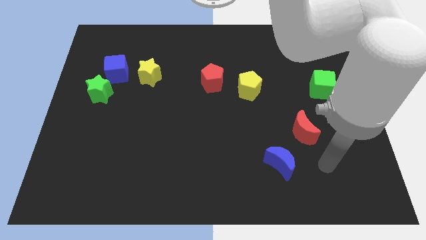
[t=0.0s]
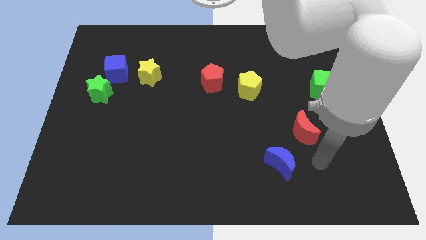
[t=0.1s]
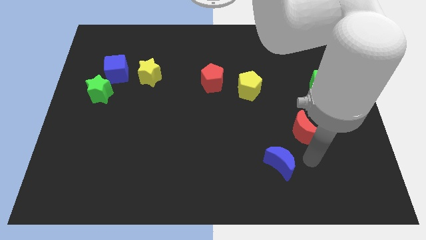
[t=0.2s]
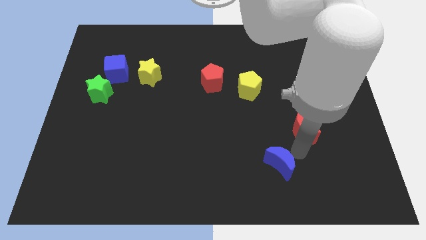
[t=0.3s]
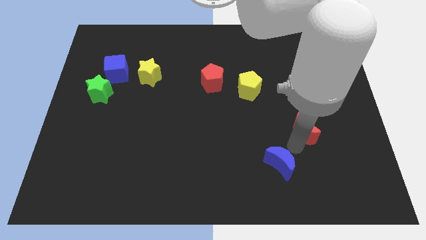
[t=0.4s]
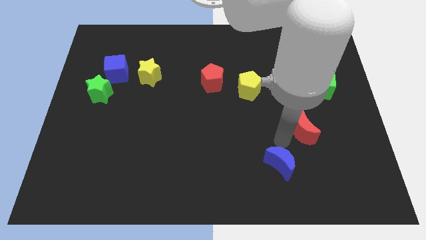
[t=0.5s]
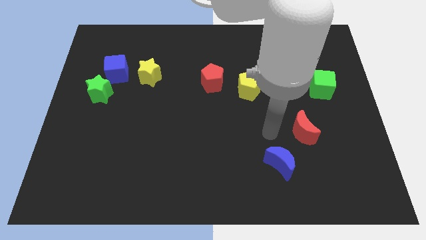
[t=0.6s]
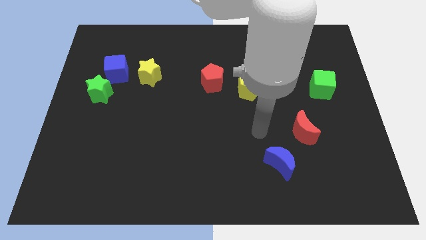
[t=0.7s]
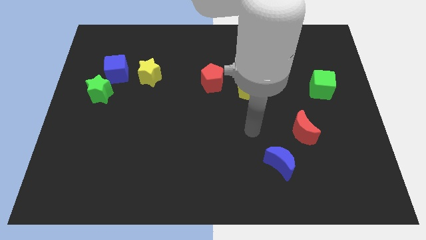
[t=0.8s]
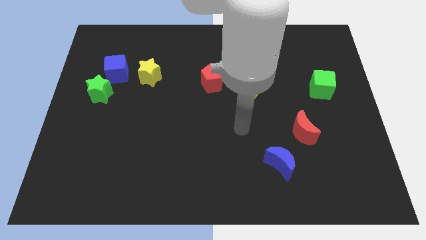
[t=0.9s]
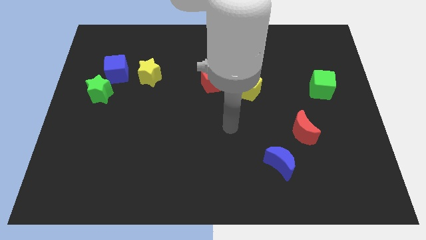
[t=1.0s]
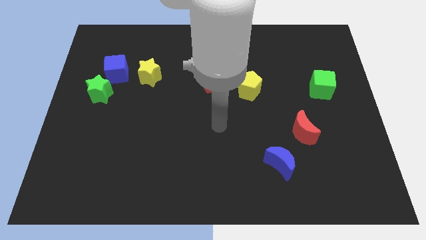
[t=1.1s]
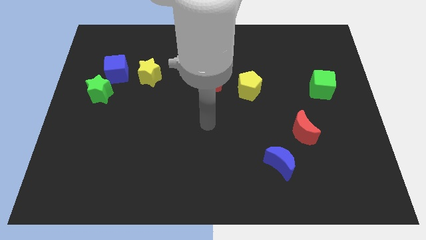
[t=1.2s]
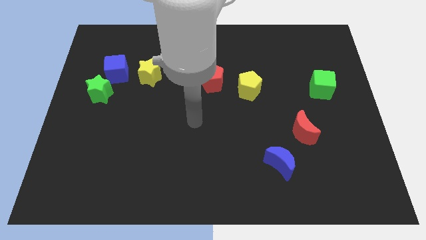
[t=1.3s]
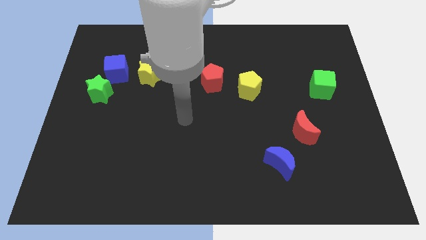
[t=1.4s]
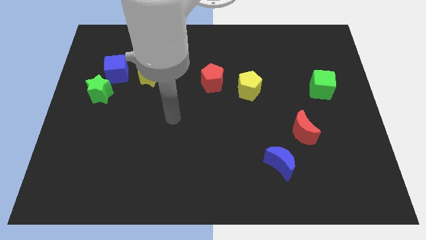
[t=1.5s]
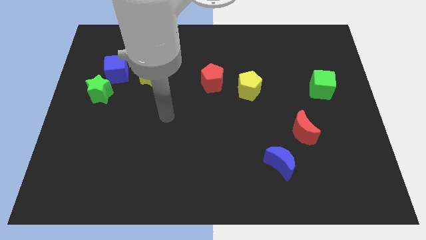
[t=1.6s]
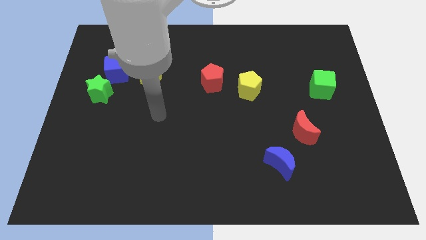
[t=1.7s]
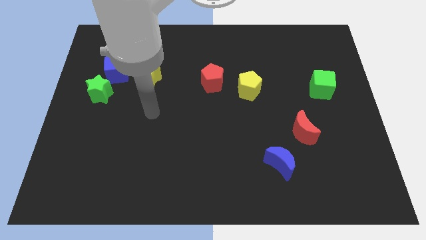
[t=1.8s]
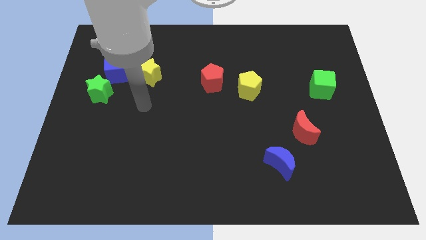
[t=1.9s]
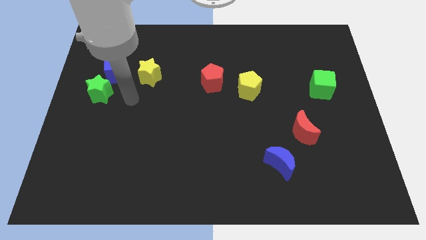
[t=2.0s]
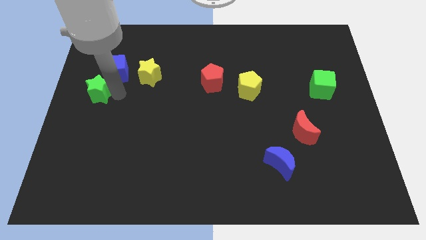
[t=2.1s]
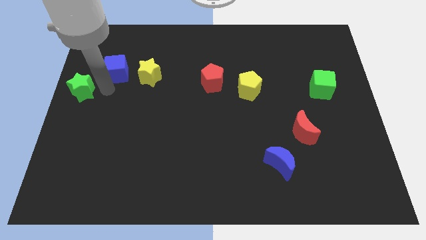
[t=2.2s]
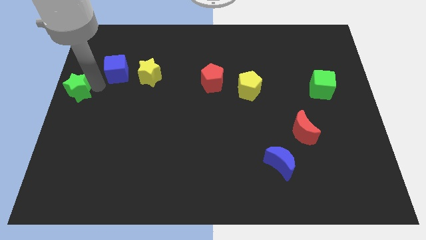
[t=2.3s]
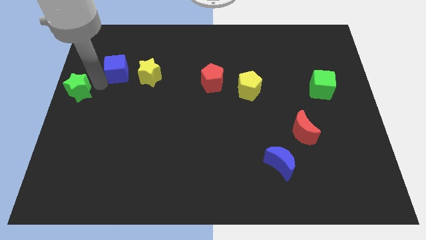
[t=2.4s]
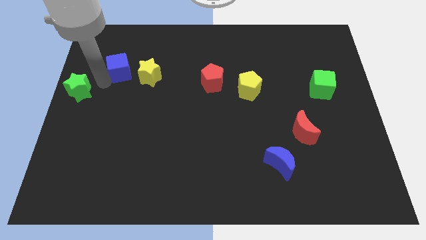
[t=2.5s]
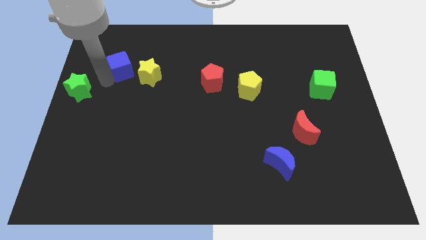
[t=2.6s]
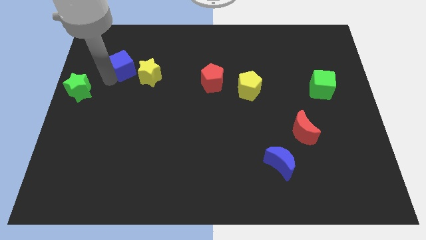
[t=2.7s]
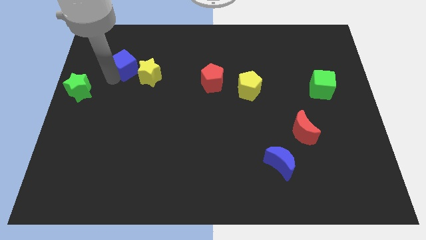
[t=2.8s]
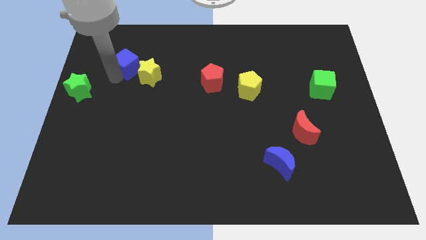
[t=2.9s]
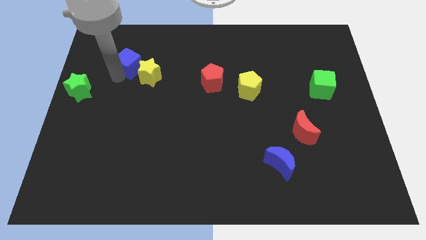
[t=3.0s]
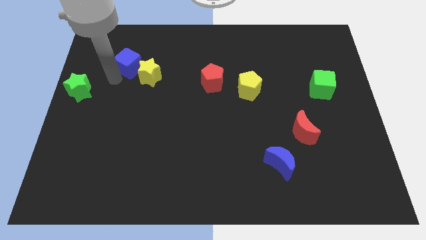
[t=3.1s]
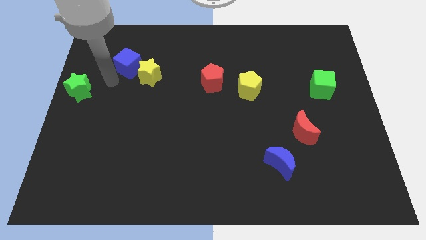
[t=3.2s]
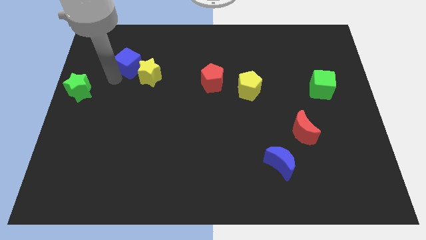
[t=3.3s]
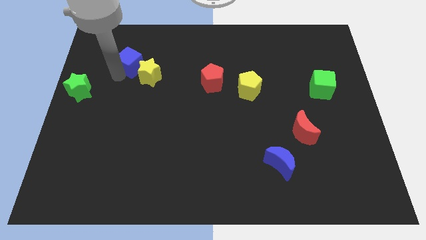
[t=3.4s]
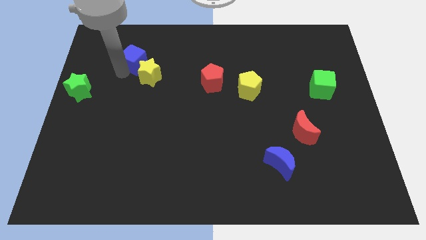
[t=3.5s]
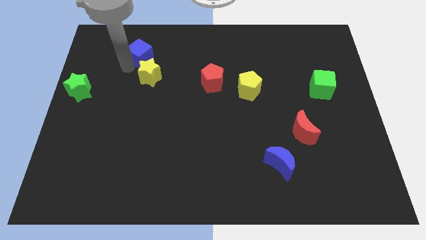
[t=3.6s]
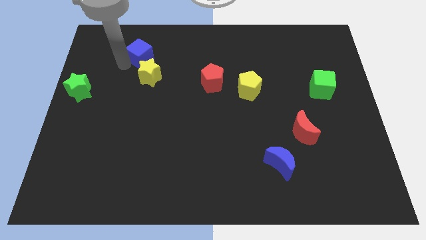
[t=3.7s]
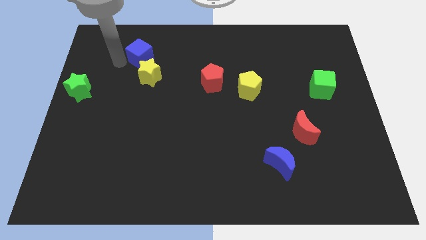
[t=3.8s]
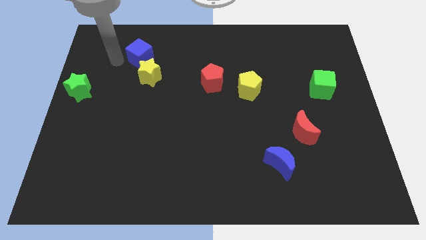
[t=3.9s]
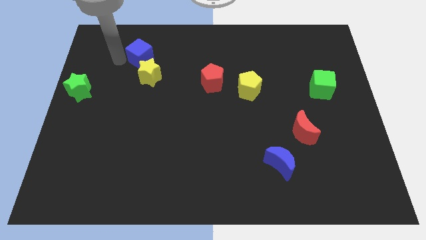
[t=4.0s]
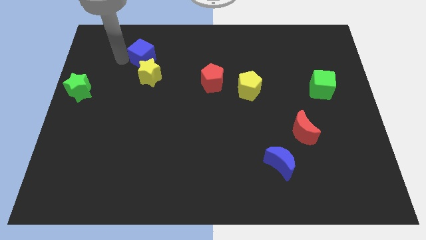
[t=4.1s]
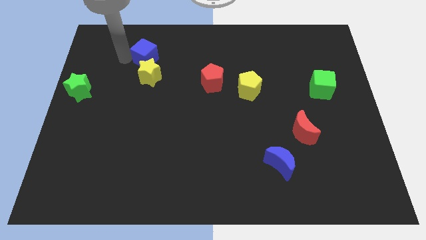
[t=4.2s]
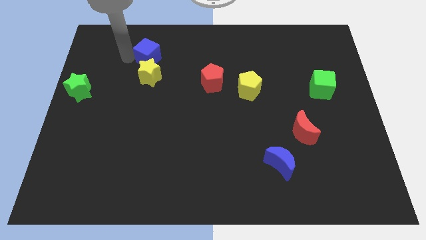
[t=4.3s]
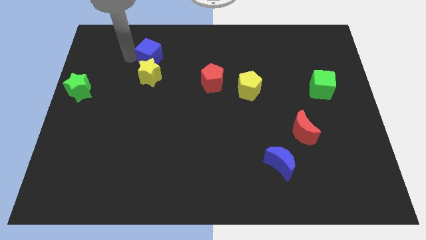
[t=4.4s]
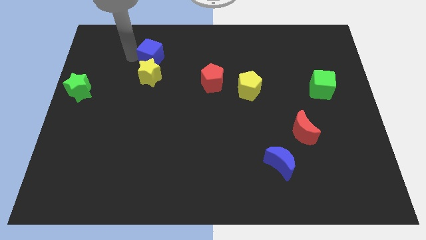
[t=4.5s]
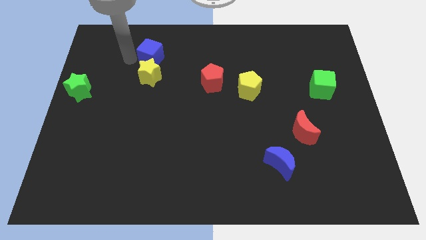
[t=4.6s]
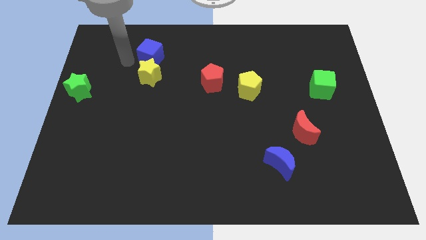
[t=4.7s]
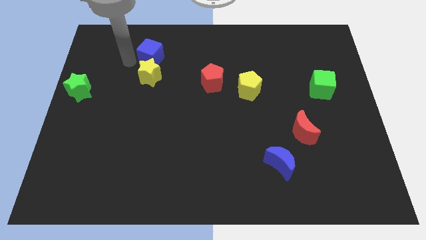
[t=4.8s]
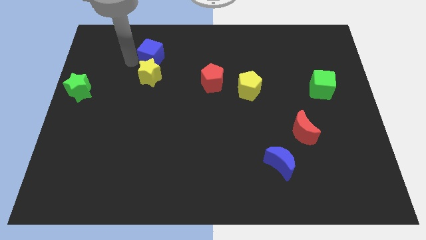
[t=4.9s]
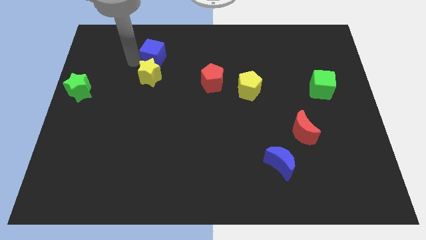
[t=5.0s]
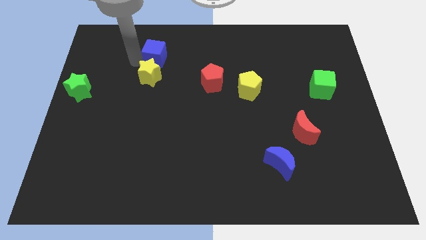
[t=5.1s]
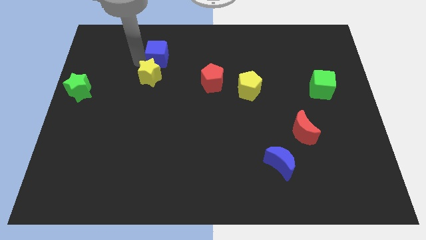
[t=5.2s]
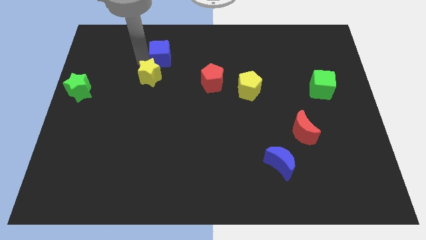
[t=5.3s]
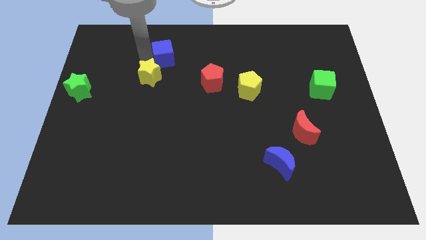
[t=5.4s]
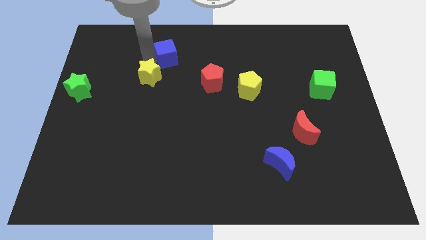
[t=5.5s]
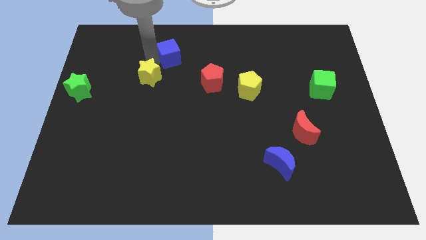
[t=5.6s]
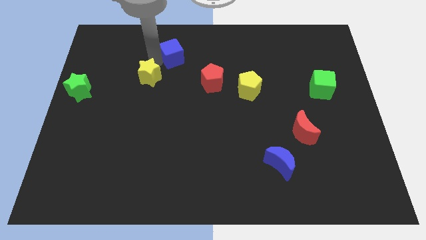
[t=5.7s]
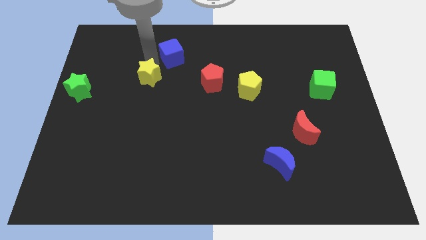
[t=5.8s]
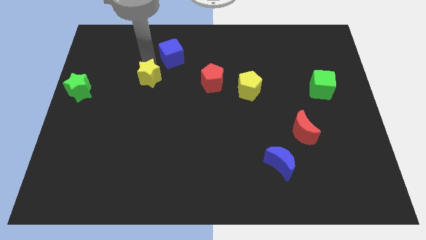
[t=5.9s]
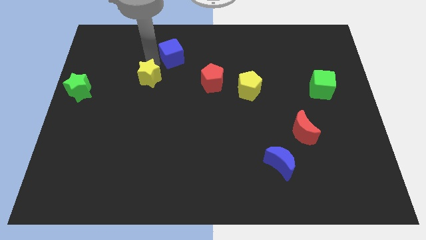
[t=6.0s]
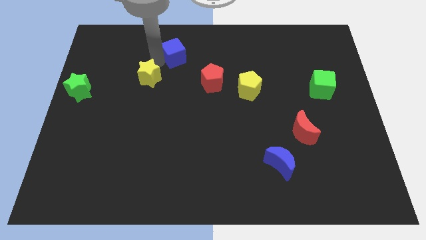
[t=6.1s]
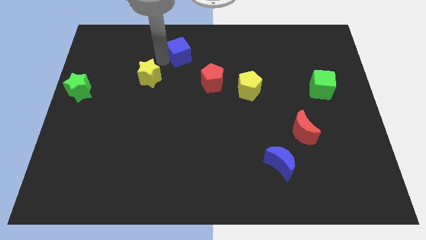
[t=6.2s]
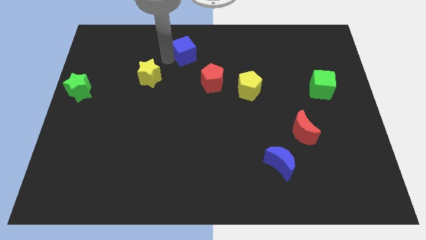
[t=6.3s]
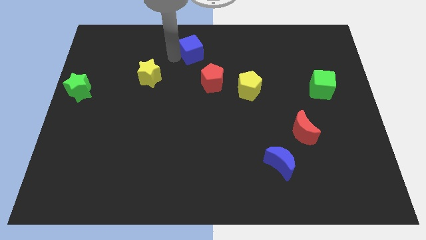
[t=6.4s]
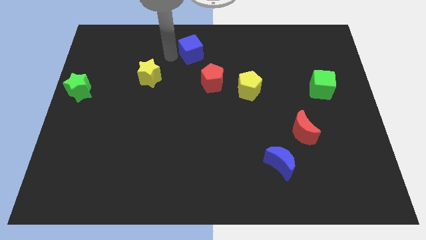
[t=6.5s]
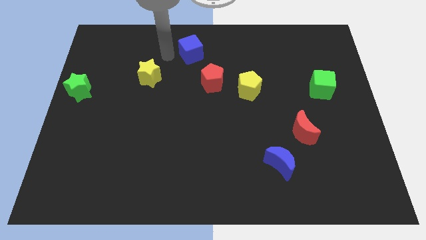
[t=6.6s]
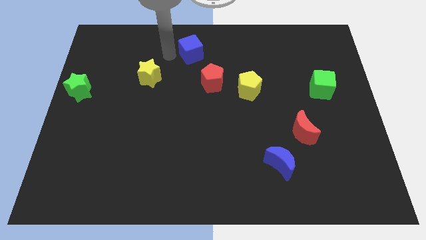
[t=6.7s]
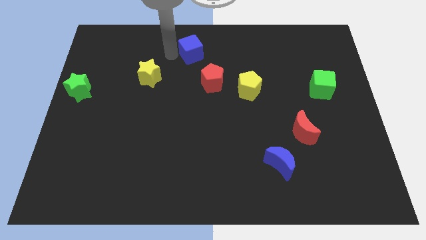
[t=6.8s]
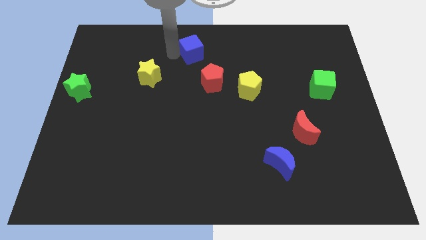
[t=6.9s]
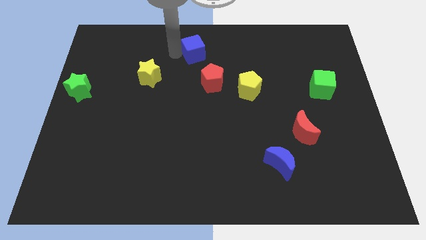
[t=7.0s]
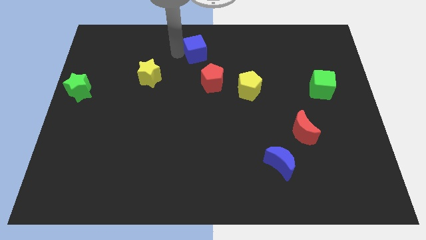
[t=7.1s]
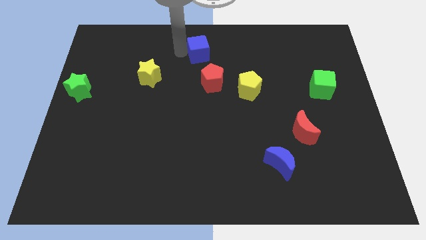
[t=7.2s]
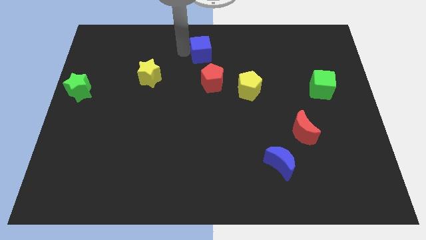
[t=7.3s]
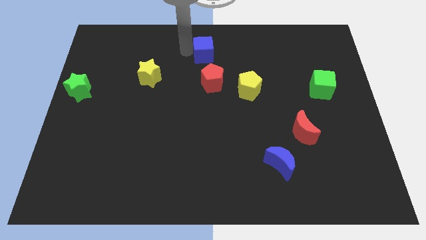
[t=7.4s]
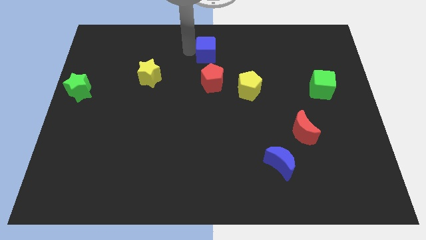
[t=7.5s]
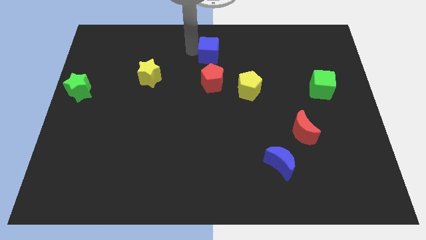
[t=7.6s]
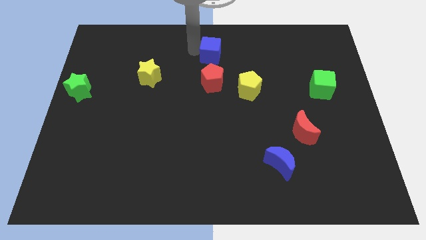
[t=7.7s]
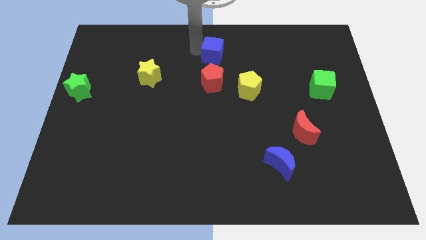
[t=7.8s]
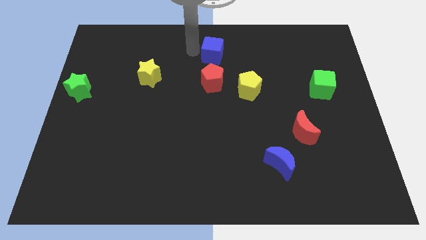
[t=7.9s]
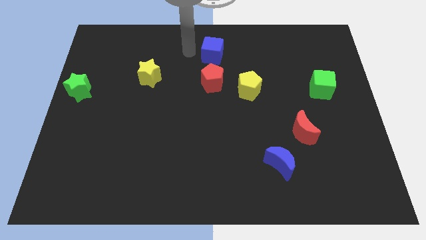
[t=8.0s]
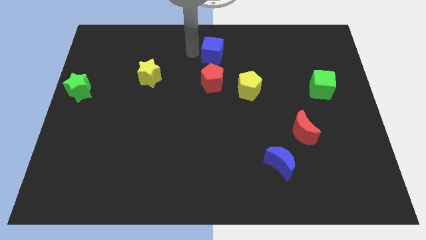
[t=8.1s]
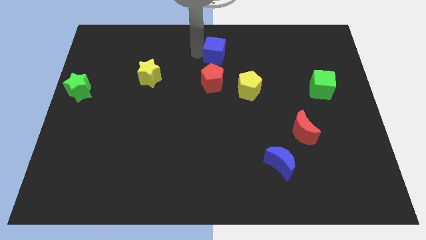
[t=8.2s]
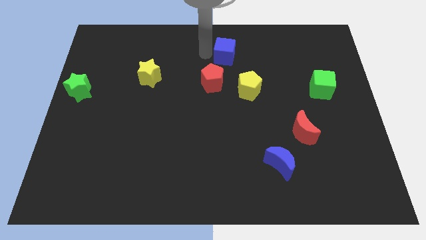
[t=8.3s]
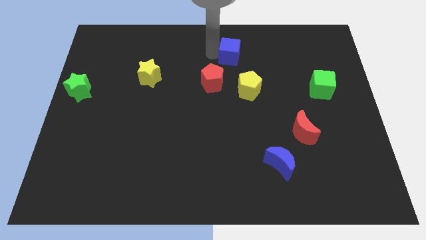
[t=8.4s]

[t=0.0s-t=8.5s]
push the blue cube to the top side of the yellow pentagon
